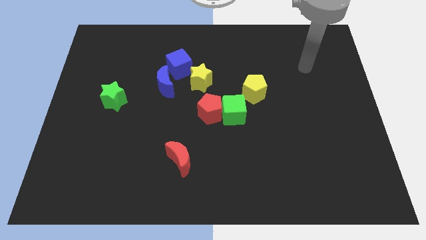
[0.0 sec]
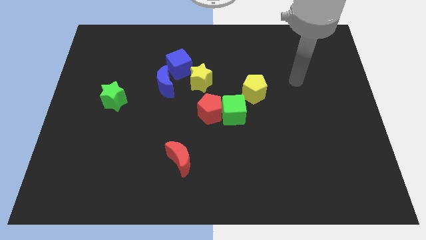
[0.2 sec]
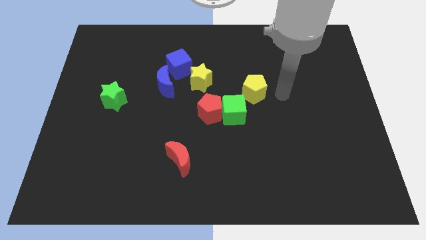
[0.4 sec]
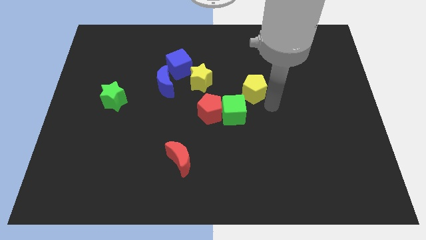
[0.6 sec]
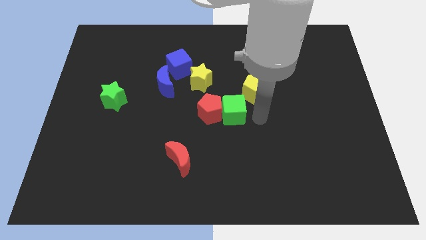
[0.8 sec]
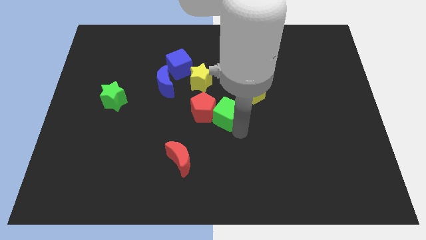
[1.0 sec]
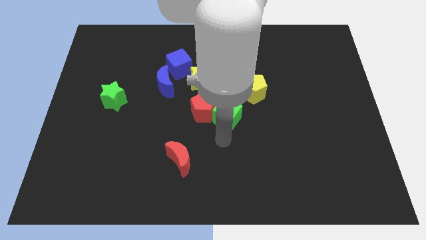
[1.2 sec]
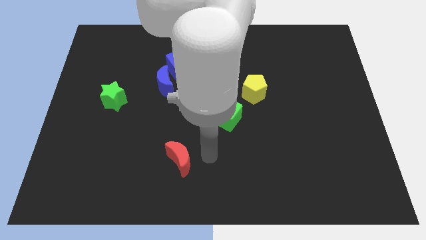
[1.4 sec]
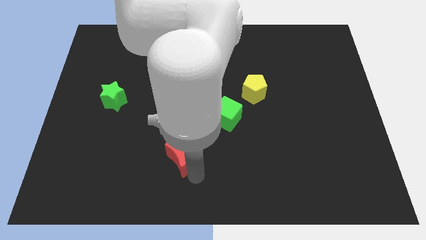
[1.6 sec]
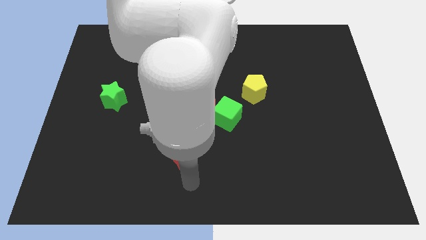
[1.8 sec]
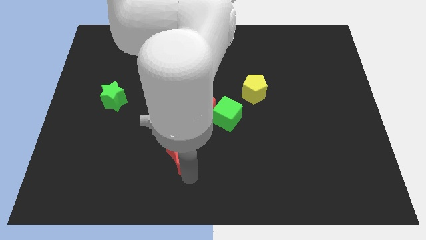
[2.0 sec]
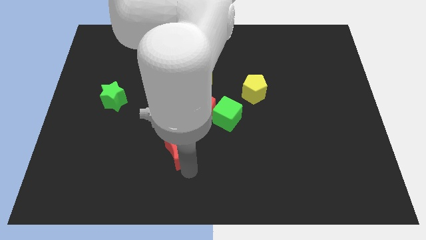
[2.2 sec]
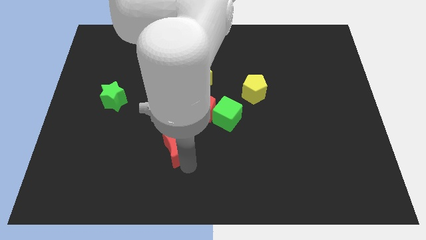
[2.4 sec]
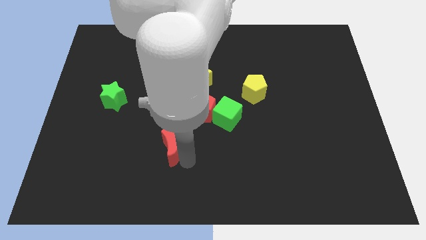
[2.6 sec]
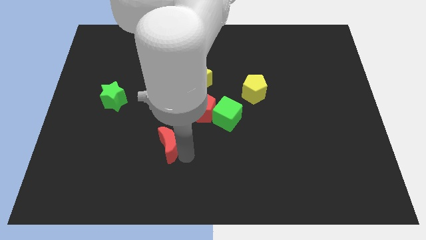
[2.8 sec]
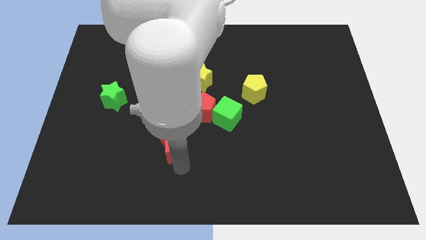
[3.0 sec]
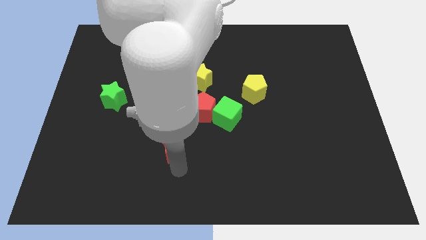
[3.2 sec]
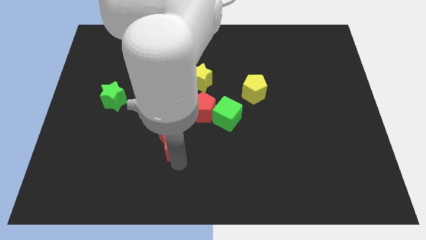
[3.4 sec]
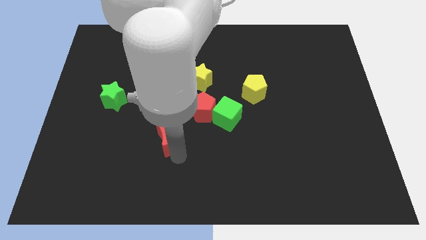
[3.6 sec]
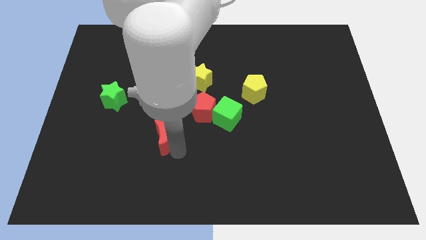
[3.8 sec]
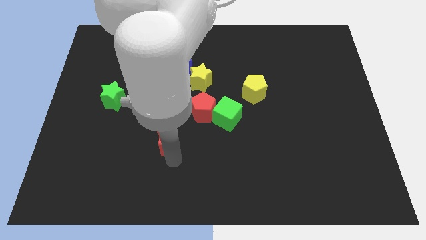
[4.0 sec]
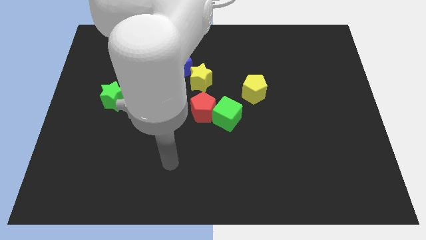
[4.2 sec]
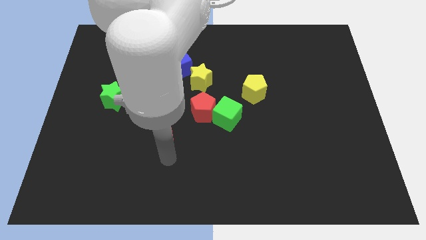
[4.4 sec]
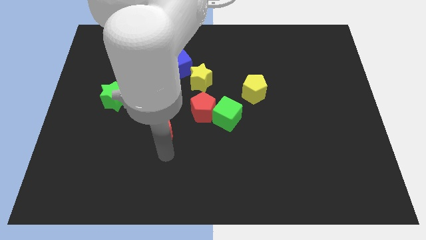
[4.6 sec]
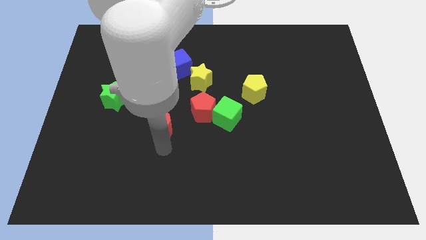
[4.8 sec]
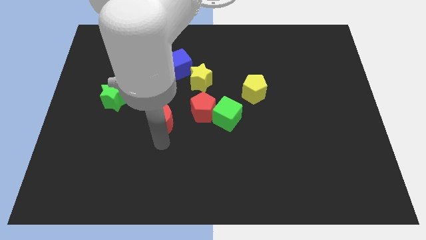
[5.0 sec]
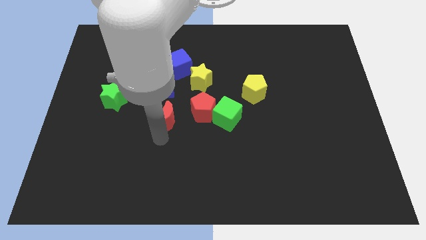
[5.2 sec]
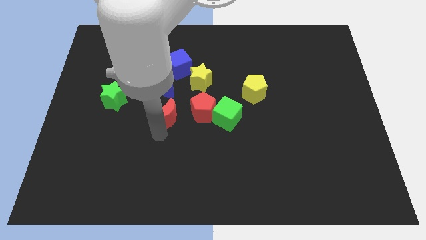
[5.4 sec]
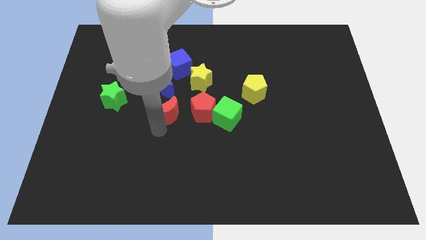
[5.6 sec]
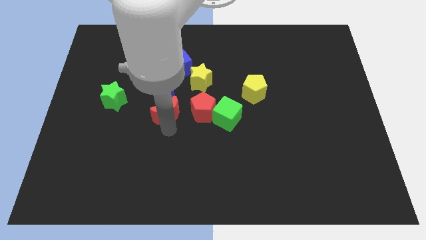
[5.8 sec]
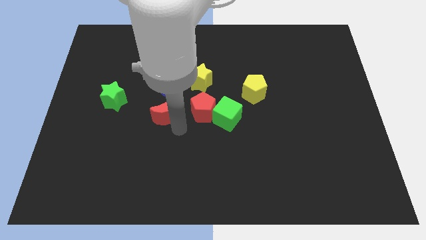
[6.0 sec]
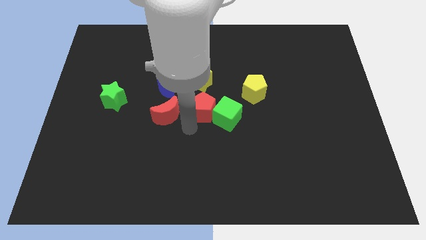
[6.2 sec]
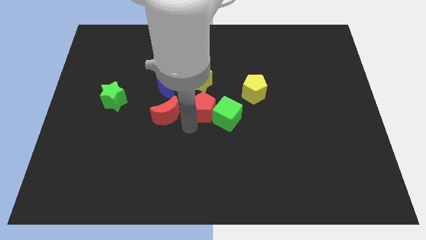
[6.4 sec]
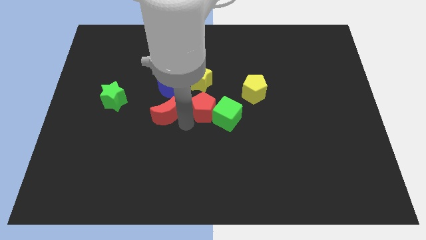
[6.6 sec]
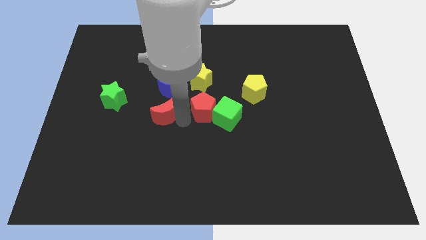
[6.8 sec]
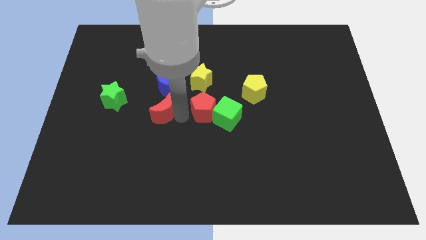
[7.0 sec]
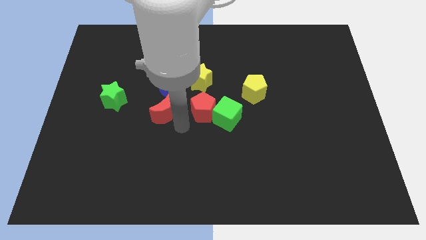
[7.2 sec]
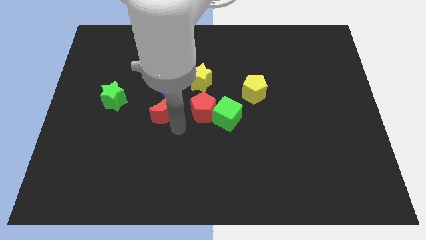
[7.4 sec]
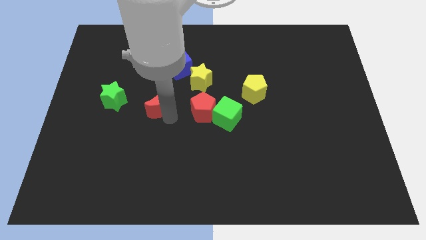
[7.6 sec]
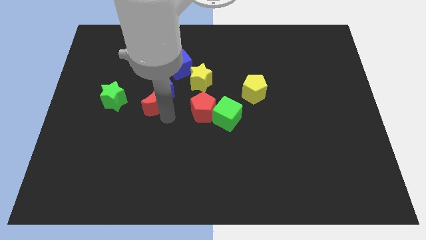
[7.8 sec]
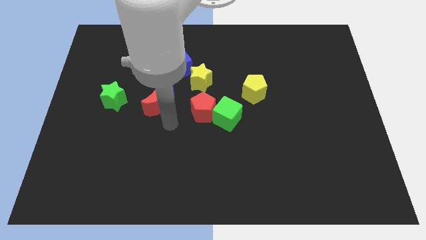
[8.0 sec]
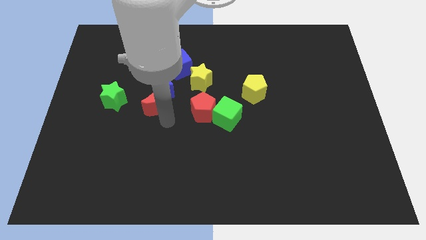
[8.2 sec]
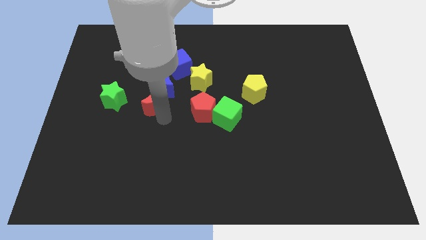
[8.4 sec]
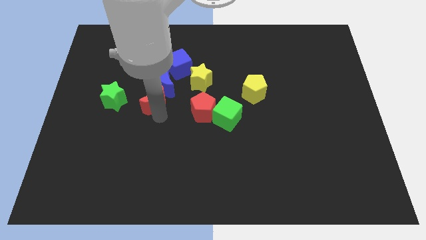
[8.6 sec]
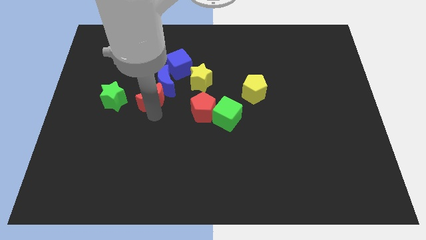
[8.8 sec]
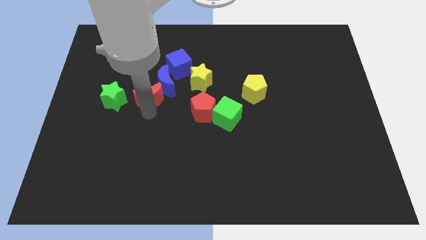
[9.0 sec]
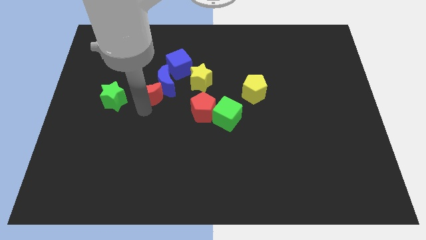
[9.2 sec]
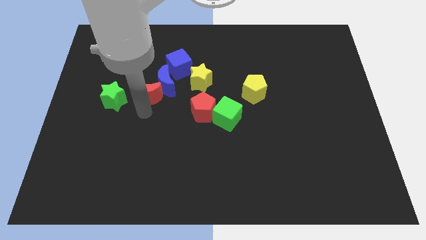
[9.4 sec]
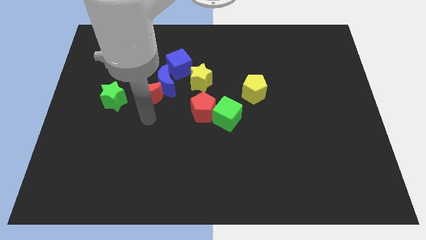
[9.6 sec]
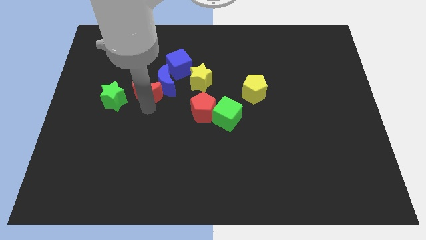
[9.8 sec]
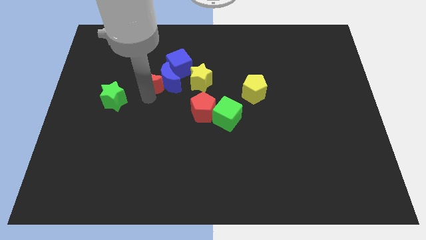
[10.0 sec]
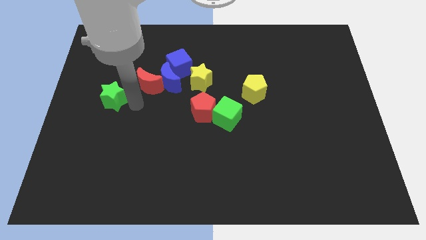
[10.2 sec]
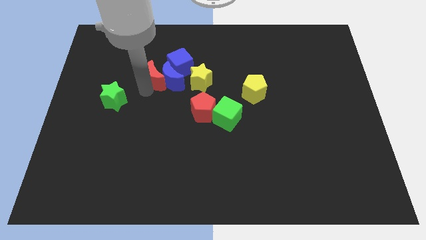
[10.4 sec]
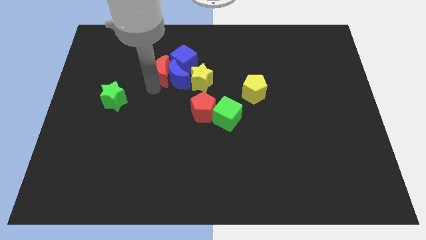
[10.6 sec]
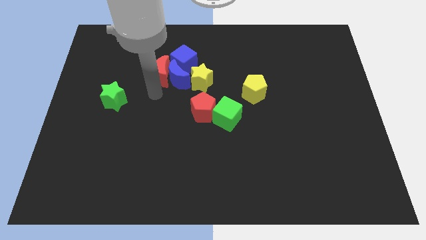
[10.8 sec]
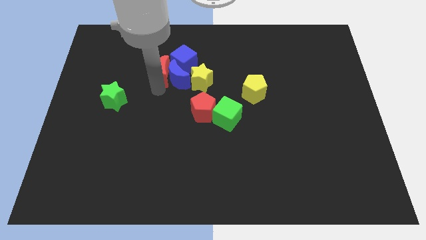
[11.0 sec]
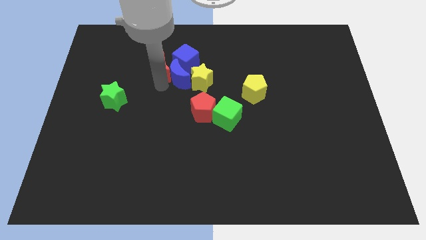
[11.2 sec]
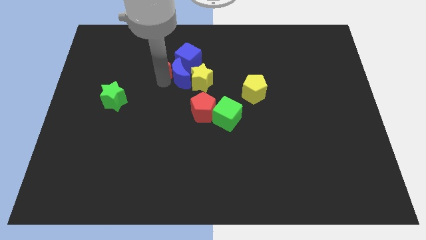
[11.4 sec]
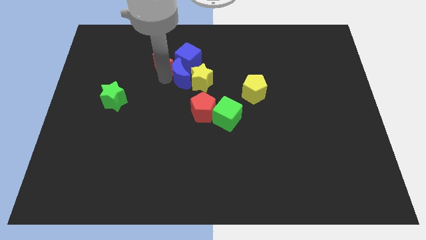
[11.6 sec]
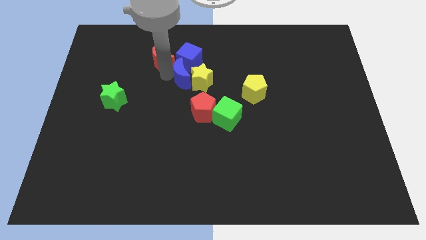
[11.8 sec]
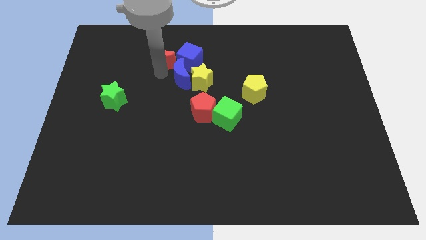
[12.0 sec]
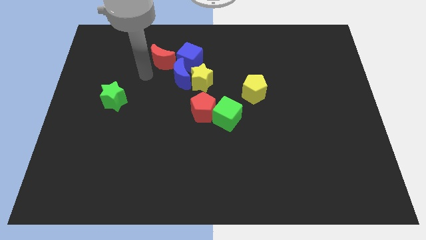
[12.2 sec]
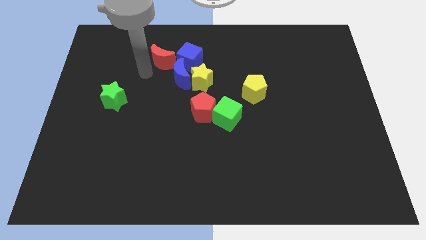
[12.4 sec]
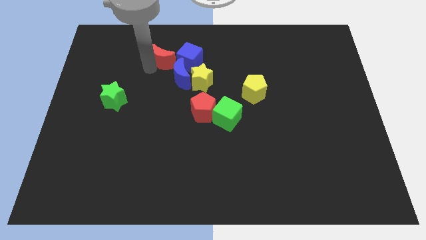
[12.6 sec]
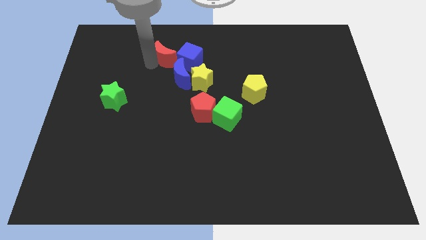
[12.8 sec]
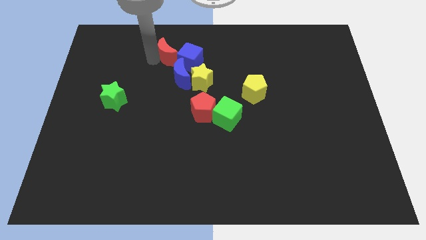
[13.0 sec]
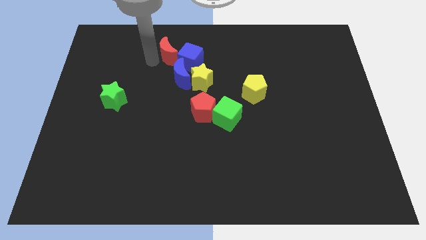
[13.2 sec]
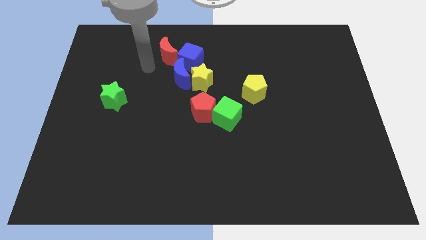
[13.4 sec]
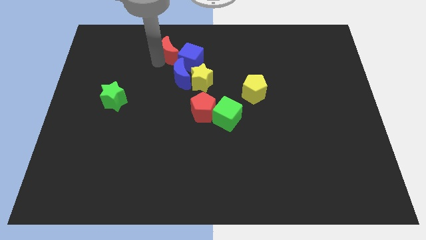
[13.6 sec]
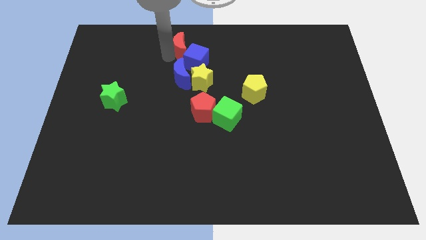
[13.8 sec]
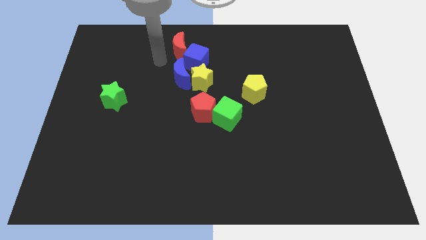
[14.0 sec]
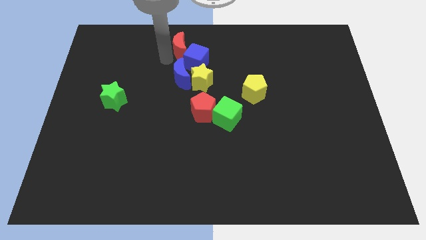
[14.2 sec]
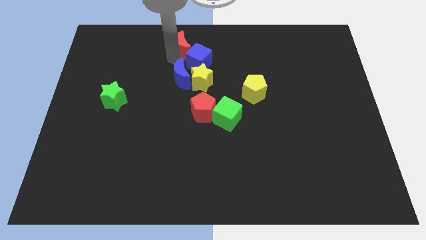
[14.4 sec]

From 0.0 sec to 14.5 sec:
slide the red moon to the towards your base

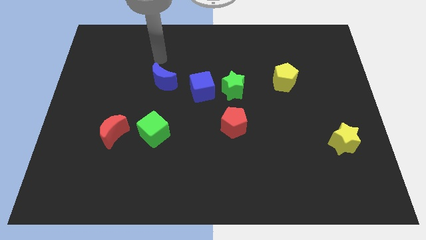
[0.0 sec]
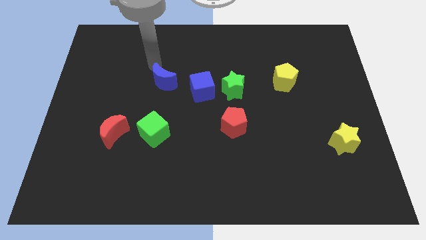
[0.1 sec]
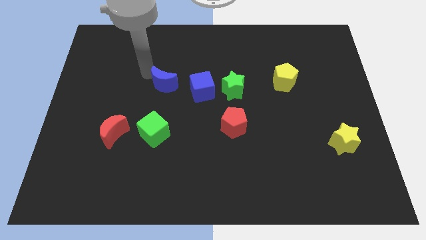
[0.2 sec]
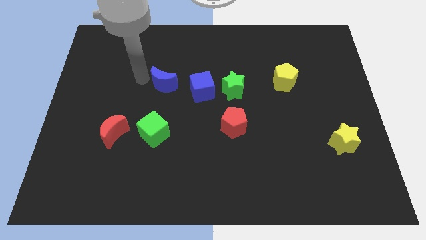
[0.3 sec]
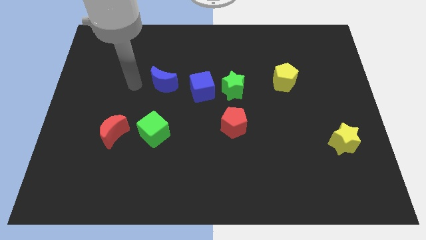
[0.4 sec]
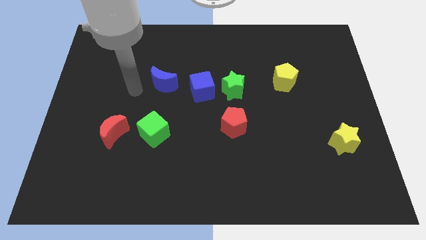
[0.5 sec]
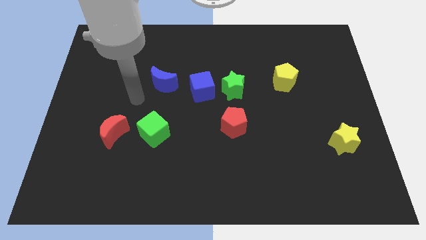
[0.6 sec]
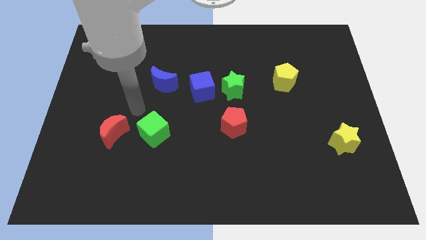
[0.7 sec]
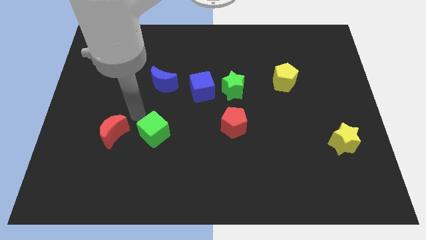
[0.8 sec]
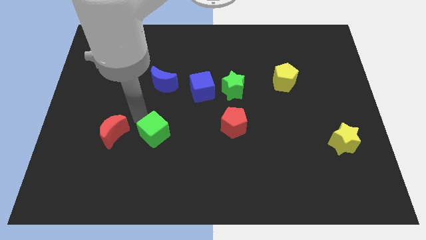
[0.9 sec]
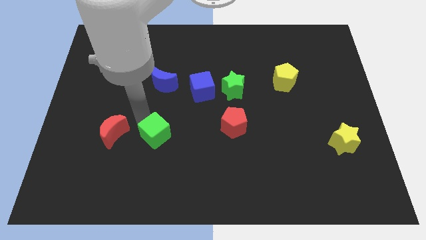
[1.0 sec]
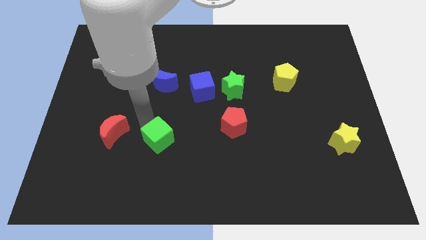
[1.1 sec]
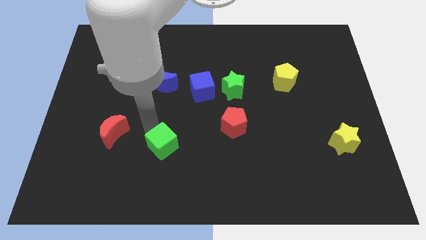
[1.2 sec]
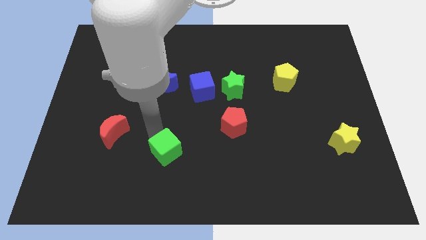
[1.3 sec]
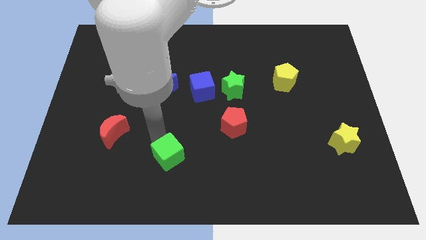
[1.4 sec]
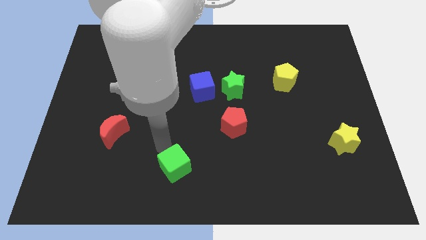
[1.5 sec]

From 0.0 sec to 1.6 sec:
move the green cube to the bottom
